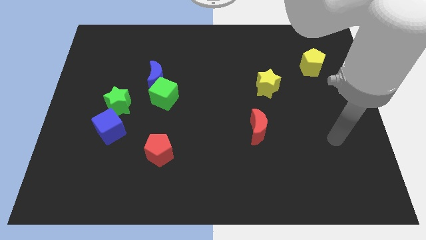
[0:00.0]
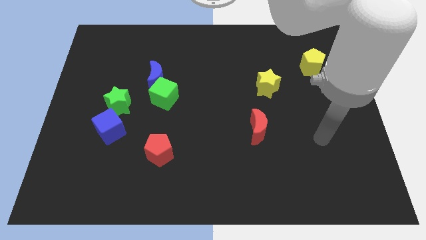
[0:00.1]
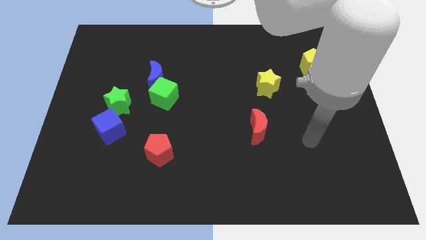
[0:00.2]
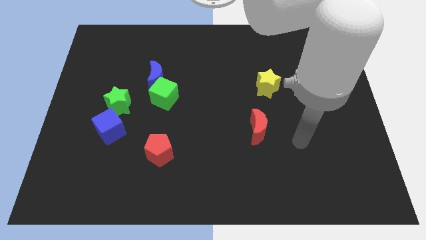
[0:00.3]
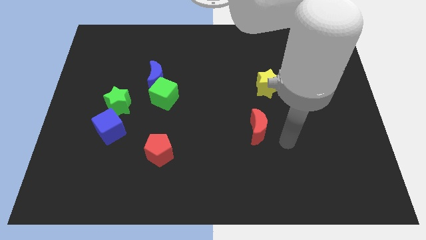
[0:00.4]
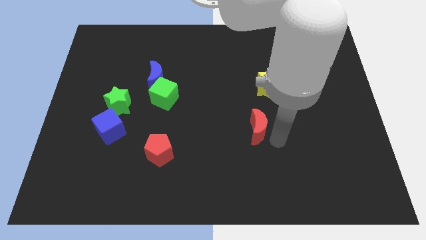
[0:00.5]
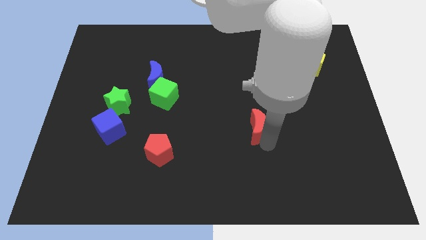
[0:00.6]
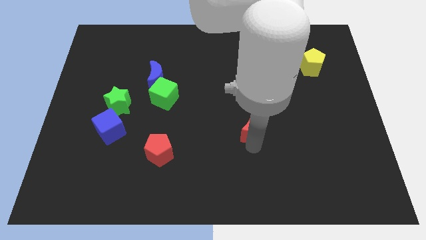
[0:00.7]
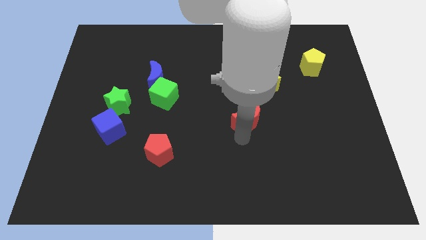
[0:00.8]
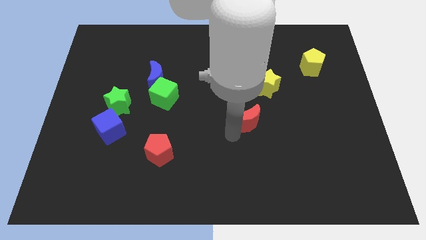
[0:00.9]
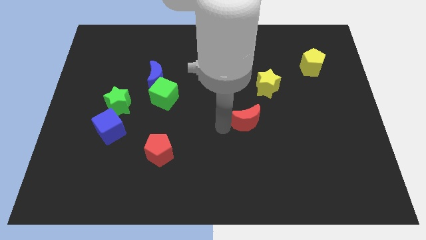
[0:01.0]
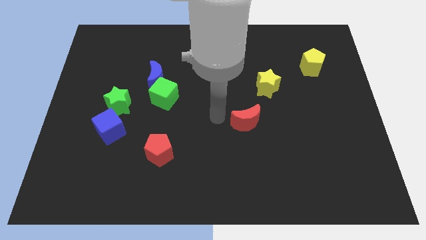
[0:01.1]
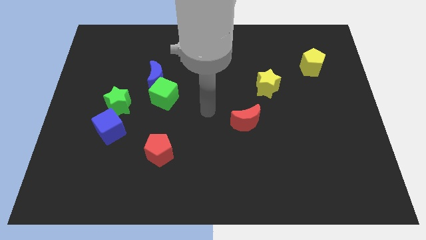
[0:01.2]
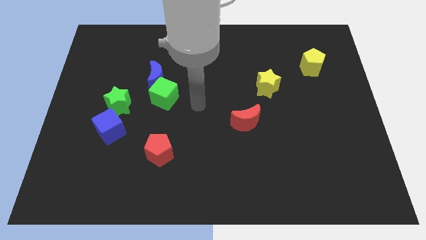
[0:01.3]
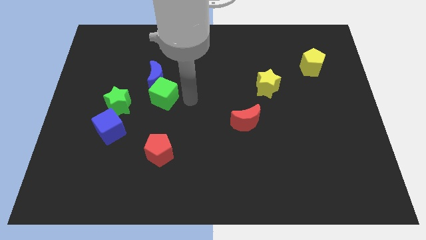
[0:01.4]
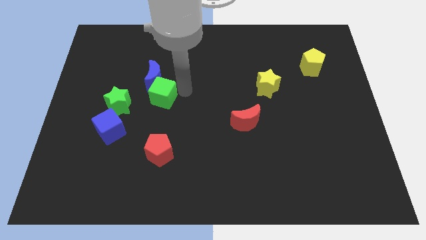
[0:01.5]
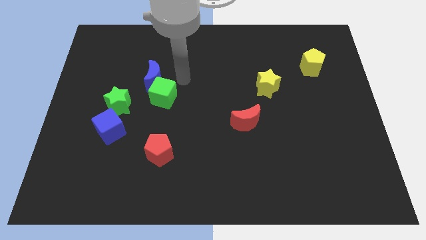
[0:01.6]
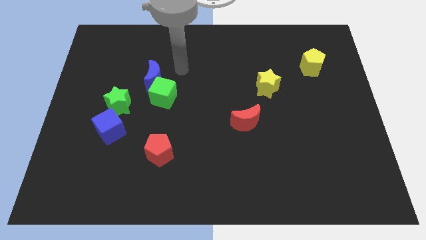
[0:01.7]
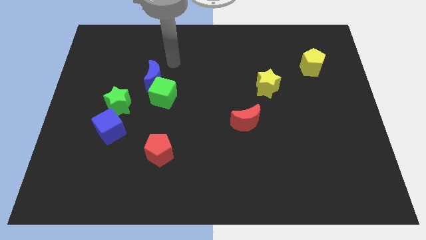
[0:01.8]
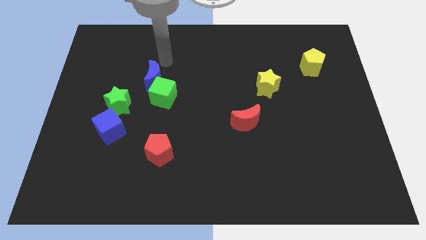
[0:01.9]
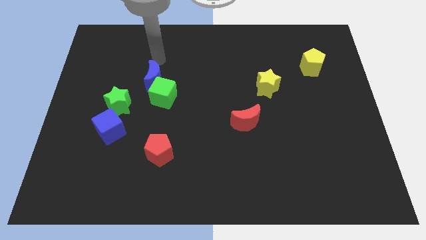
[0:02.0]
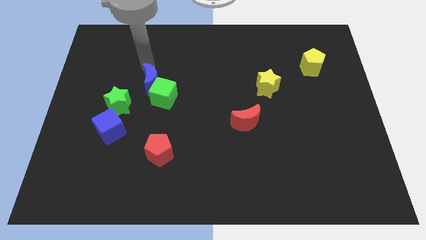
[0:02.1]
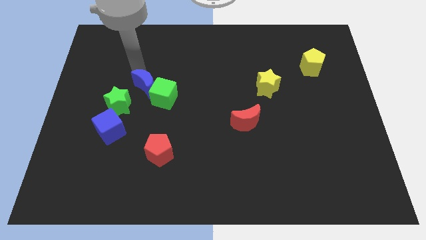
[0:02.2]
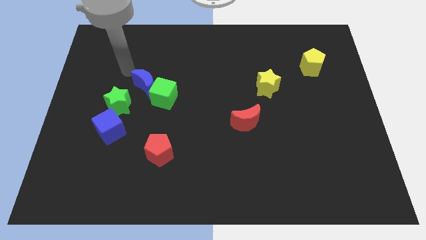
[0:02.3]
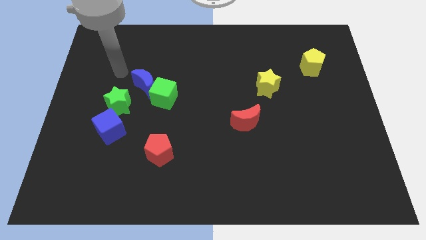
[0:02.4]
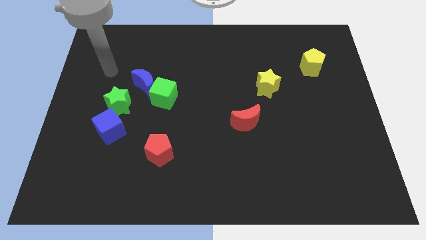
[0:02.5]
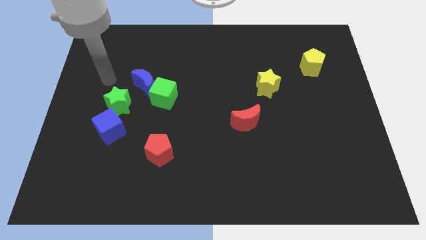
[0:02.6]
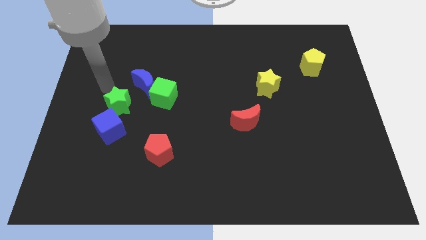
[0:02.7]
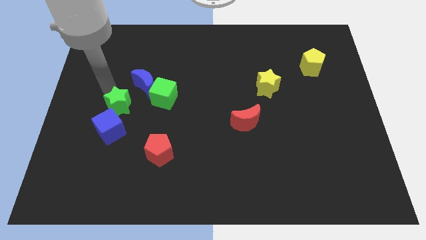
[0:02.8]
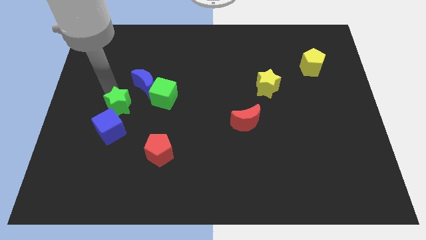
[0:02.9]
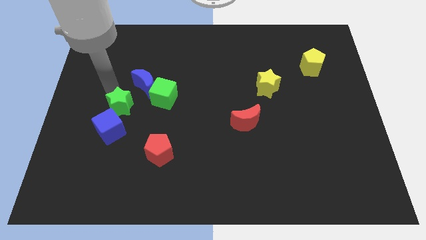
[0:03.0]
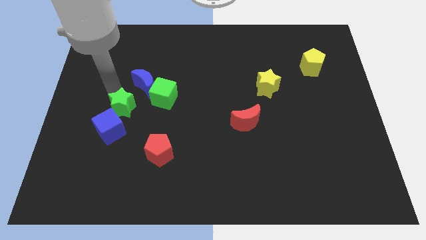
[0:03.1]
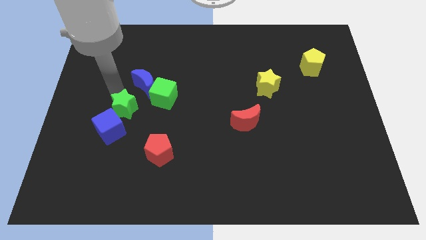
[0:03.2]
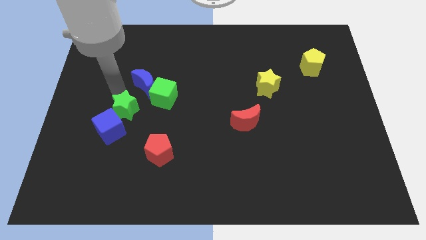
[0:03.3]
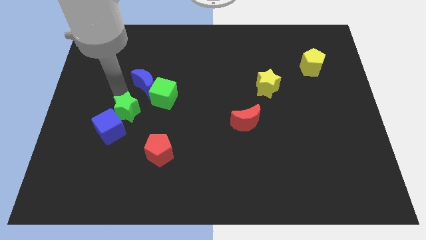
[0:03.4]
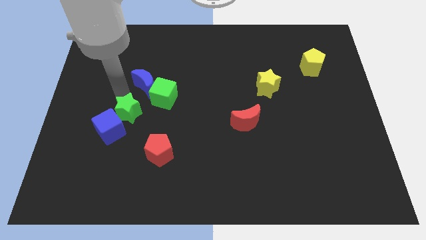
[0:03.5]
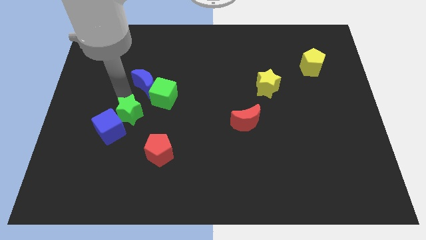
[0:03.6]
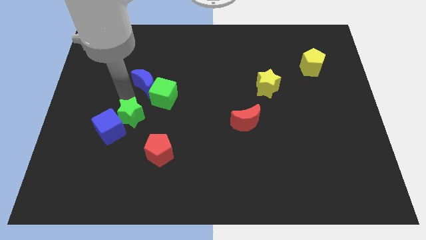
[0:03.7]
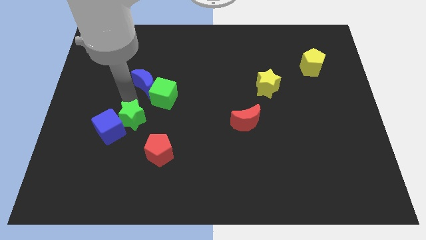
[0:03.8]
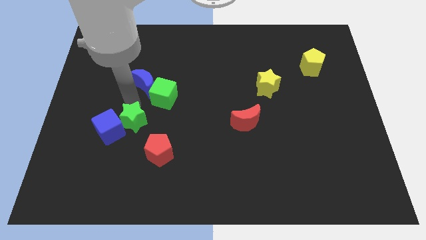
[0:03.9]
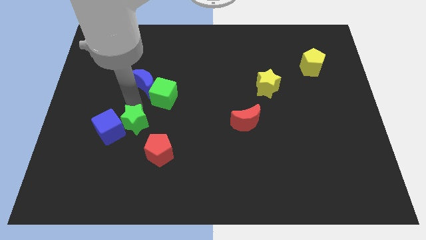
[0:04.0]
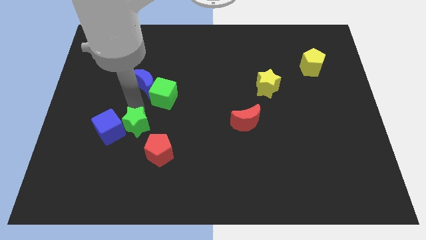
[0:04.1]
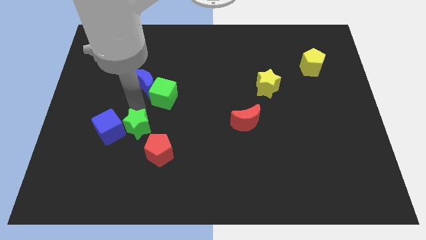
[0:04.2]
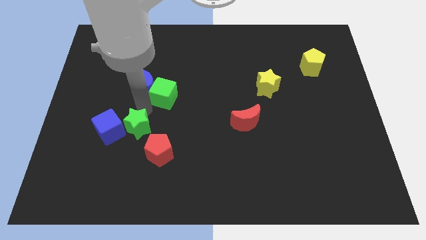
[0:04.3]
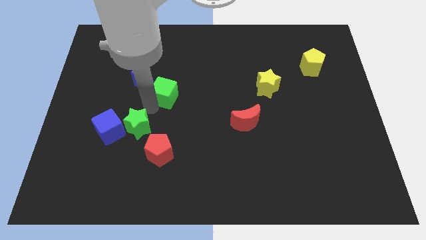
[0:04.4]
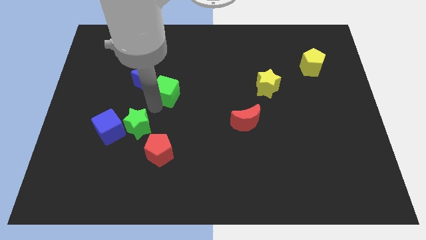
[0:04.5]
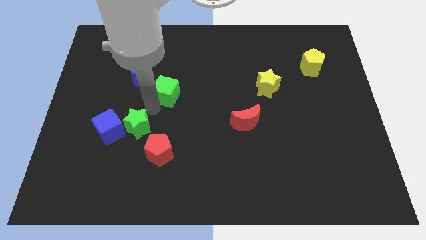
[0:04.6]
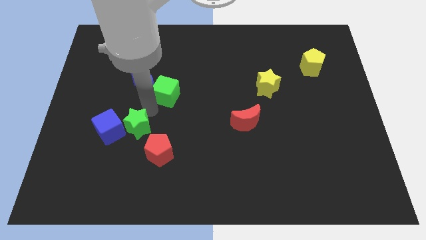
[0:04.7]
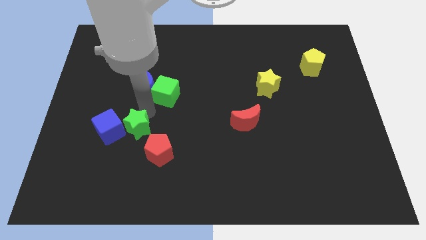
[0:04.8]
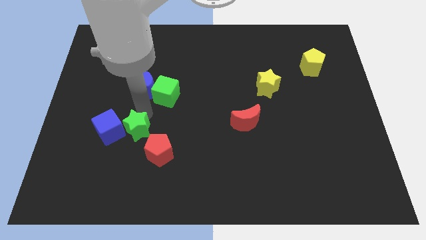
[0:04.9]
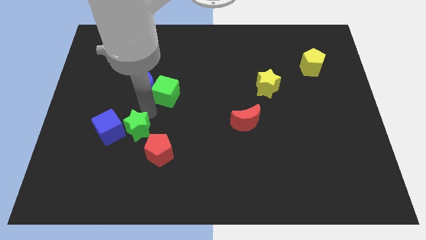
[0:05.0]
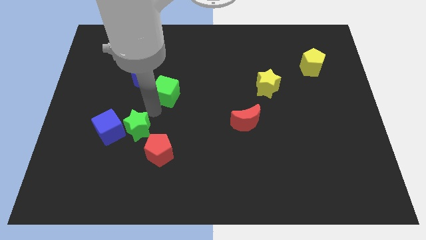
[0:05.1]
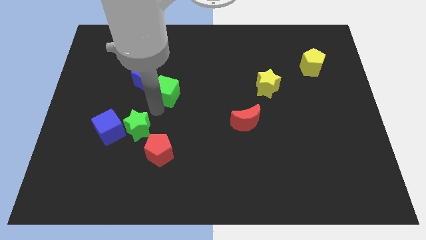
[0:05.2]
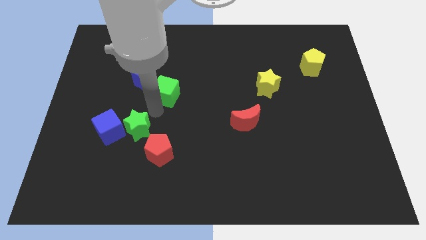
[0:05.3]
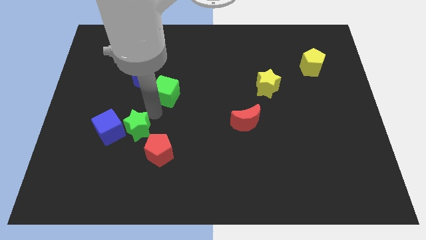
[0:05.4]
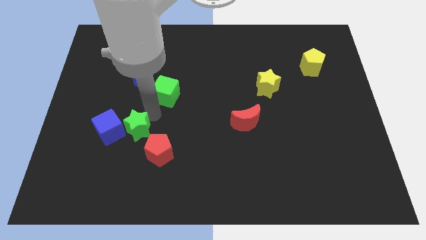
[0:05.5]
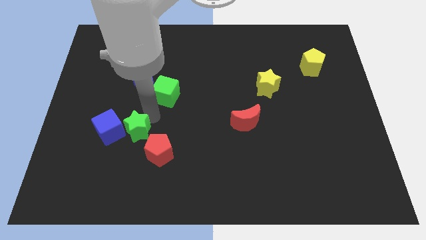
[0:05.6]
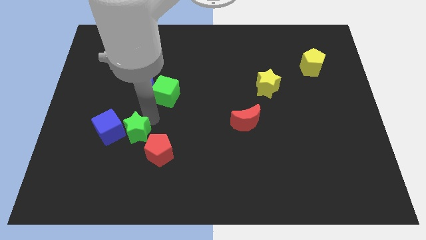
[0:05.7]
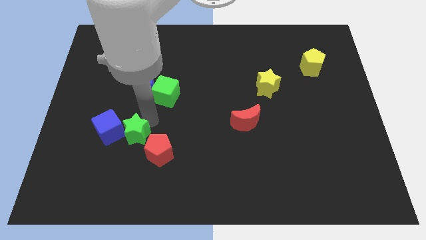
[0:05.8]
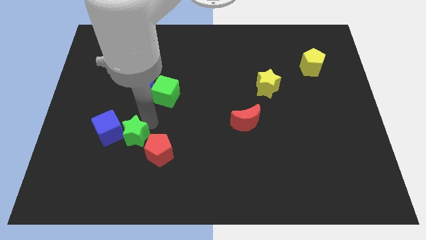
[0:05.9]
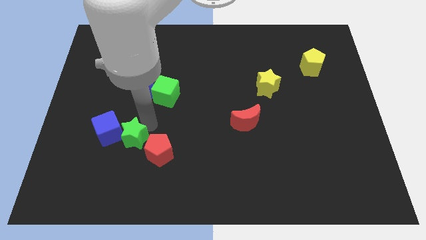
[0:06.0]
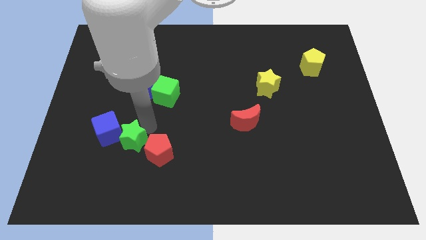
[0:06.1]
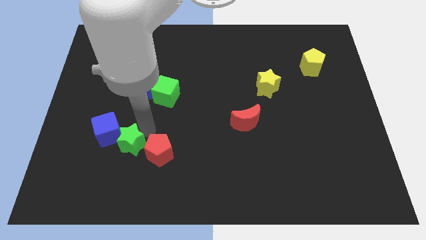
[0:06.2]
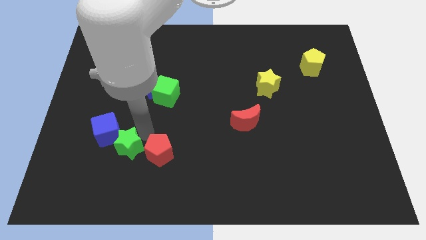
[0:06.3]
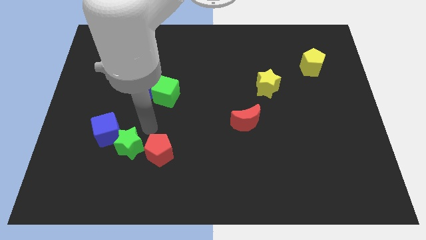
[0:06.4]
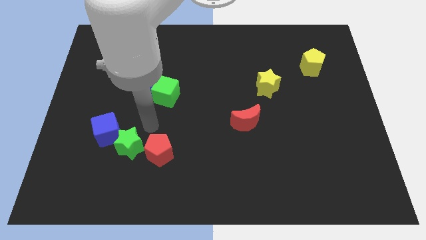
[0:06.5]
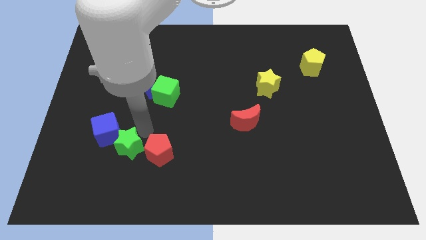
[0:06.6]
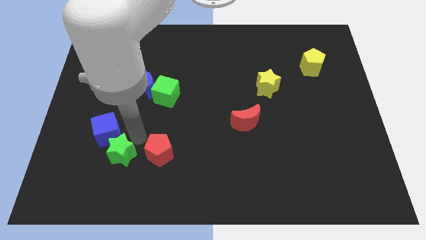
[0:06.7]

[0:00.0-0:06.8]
move the green star to the bottom of the blue cube
